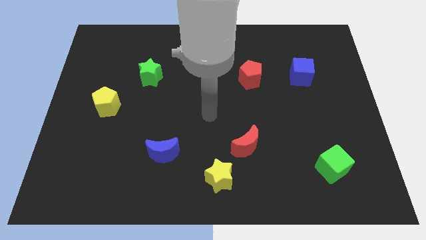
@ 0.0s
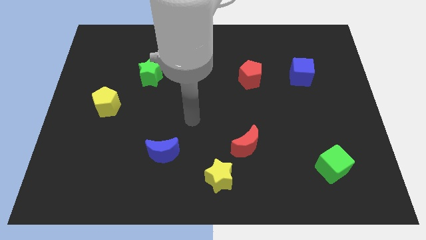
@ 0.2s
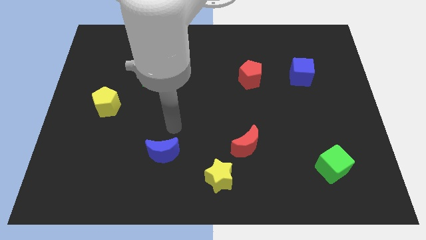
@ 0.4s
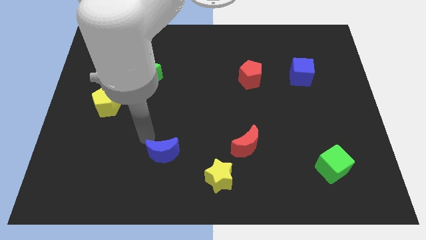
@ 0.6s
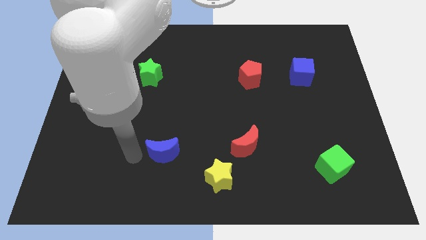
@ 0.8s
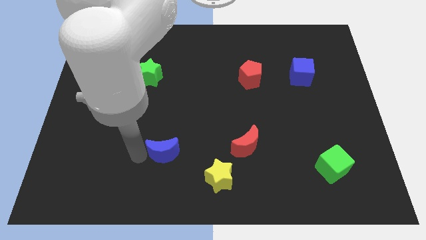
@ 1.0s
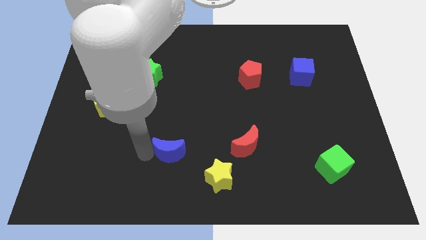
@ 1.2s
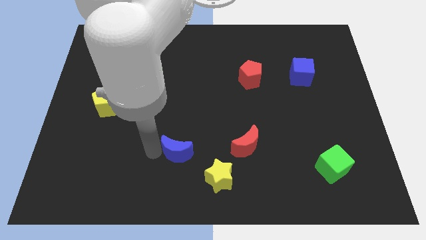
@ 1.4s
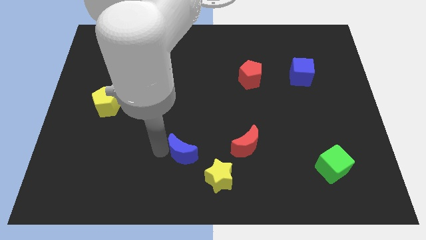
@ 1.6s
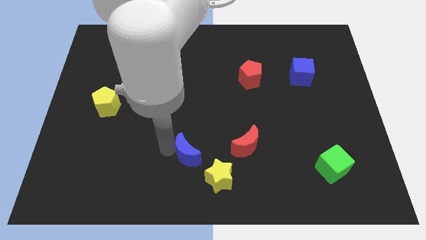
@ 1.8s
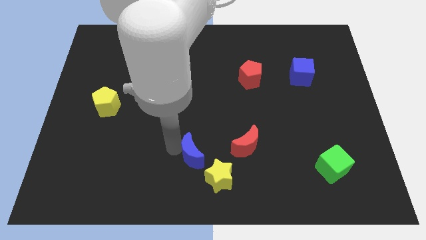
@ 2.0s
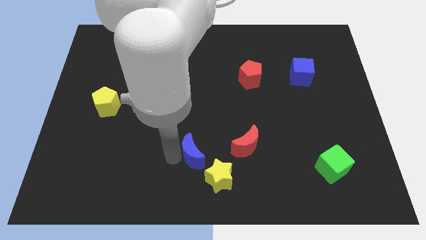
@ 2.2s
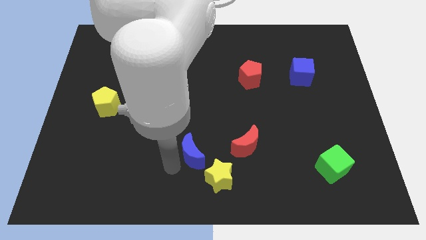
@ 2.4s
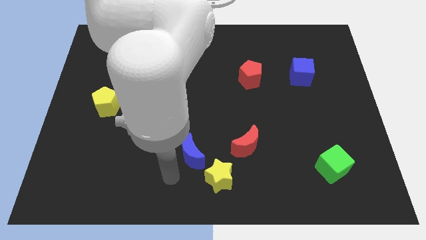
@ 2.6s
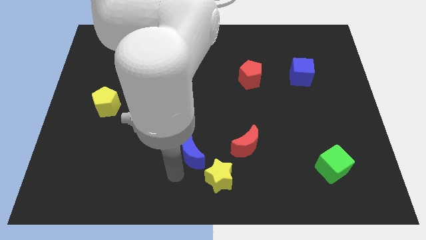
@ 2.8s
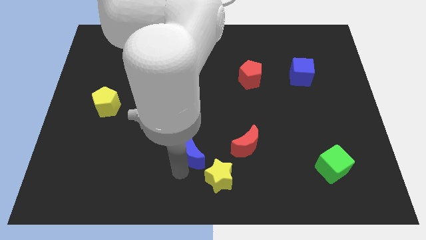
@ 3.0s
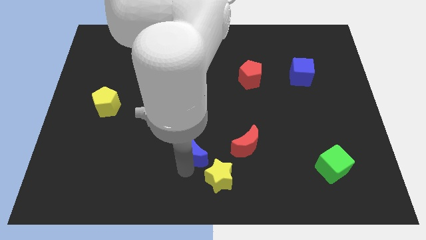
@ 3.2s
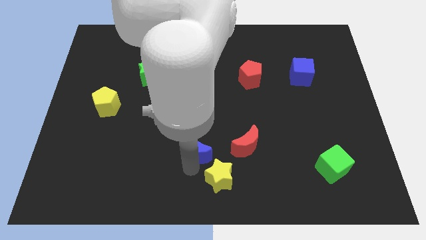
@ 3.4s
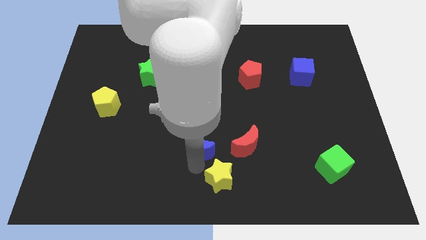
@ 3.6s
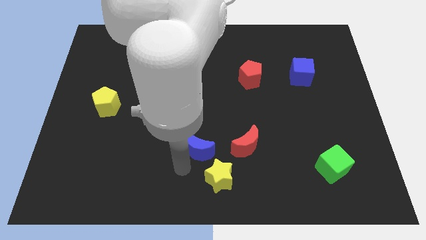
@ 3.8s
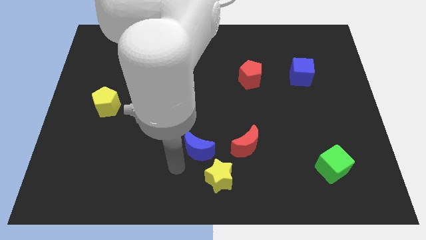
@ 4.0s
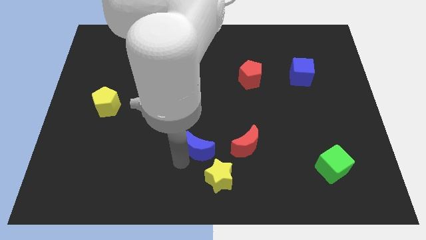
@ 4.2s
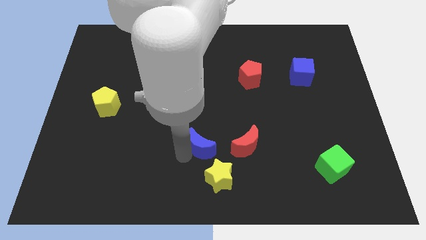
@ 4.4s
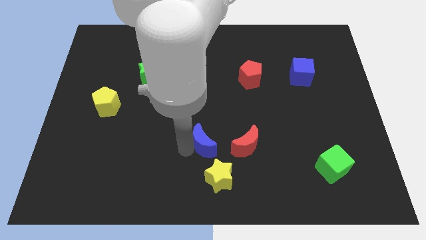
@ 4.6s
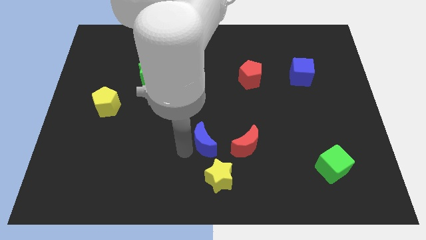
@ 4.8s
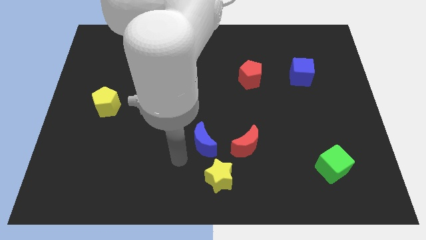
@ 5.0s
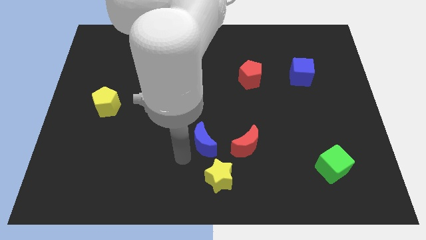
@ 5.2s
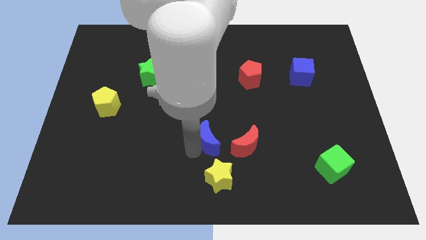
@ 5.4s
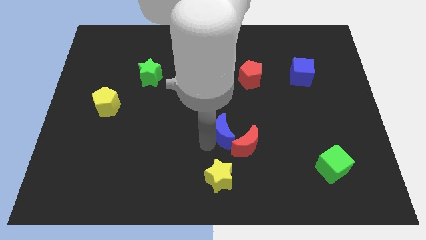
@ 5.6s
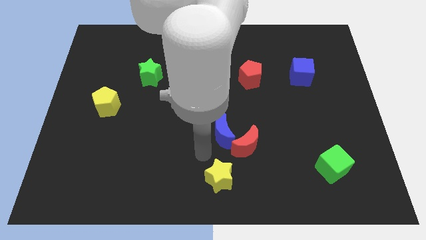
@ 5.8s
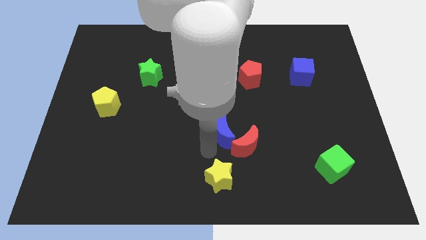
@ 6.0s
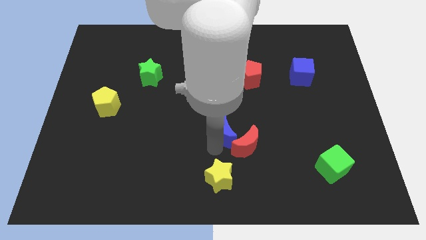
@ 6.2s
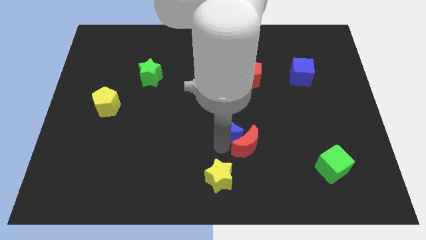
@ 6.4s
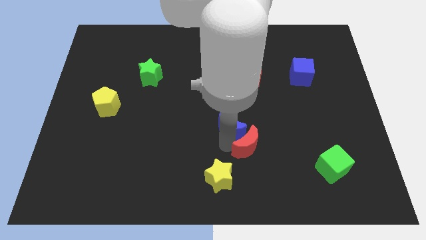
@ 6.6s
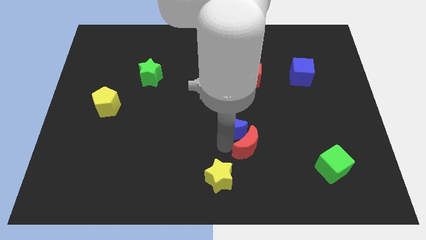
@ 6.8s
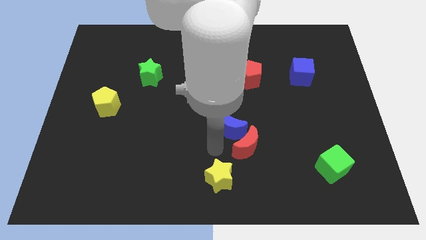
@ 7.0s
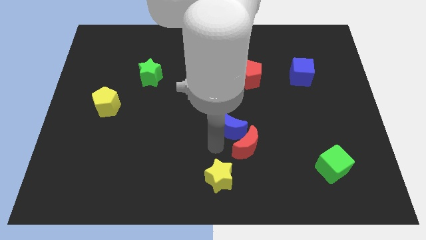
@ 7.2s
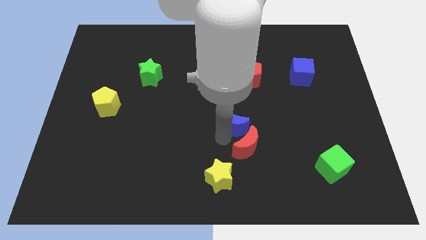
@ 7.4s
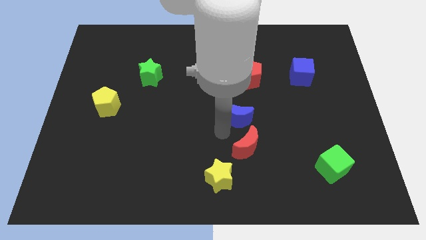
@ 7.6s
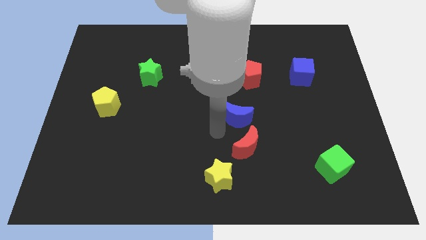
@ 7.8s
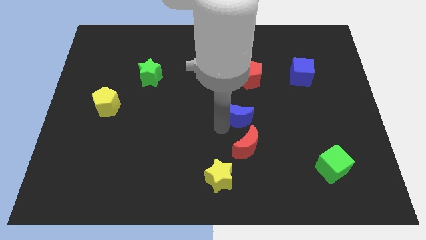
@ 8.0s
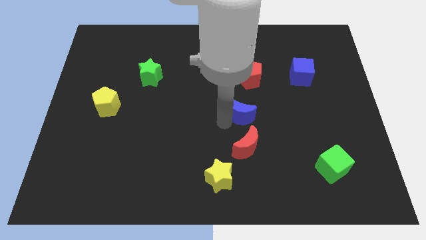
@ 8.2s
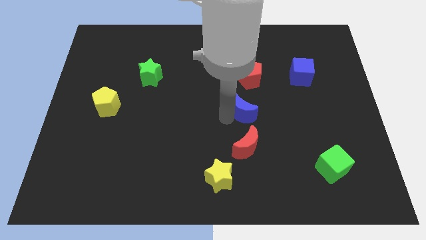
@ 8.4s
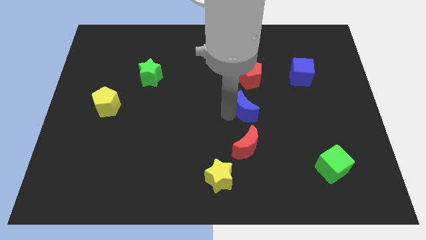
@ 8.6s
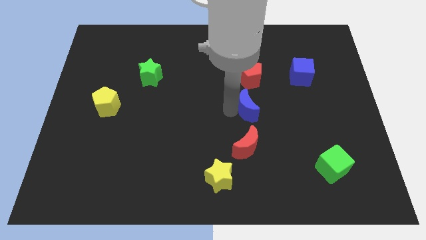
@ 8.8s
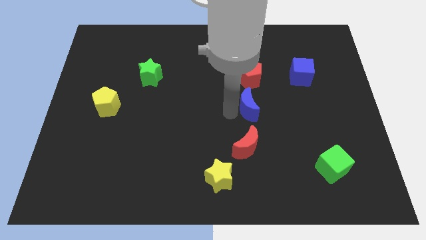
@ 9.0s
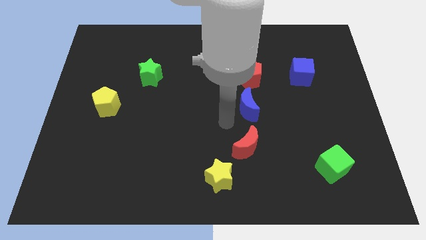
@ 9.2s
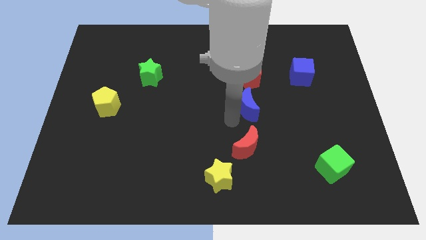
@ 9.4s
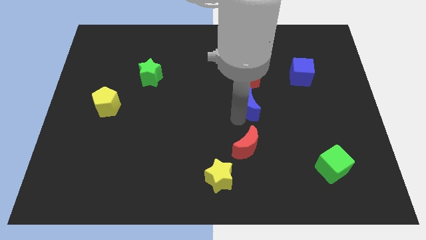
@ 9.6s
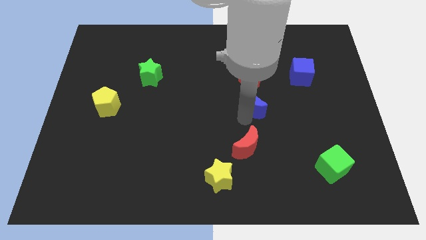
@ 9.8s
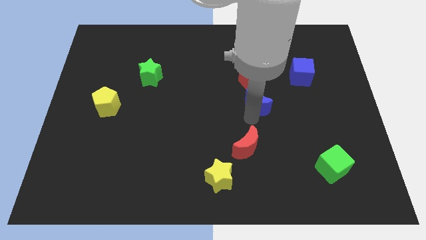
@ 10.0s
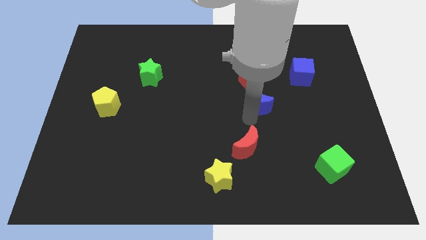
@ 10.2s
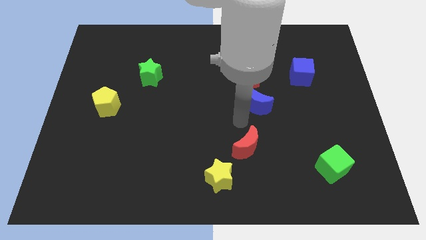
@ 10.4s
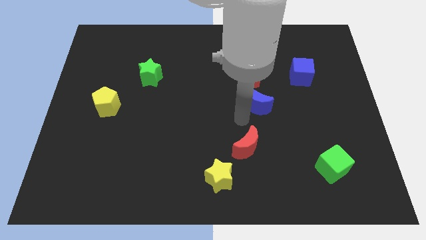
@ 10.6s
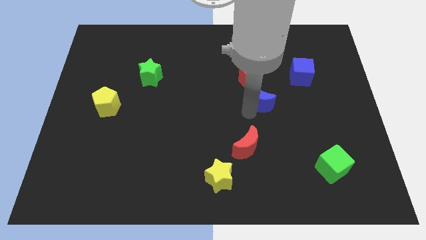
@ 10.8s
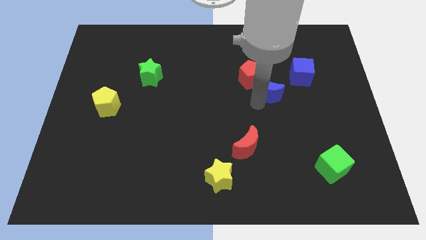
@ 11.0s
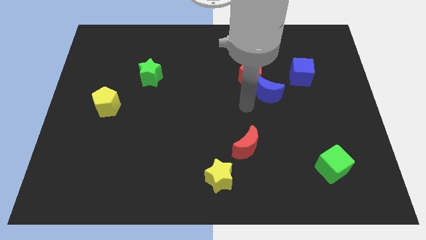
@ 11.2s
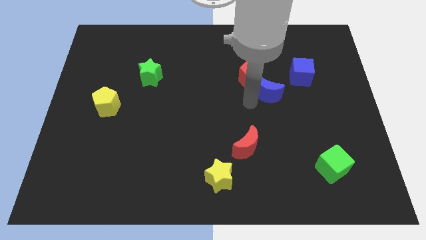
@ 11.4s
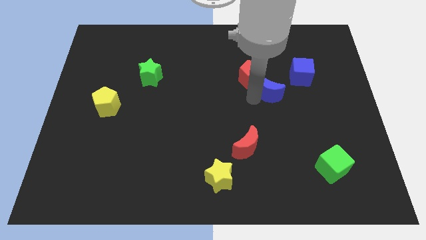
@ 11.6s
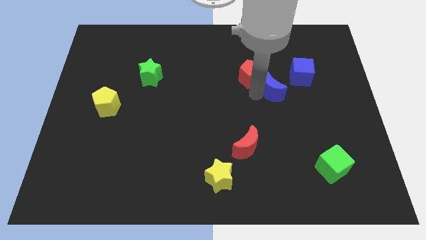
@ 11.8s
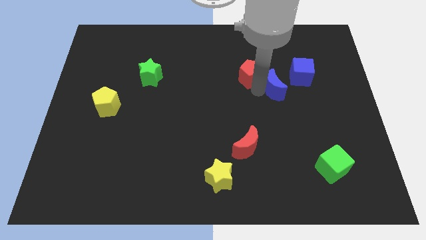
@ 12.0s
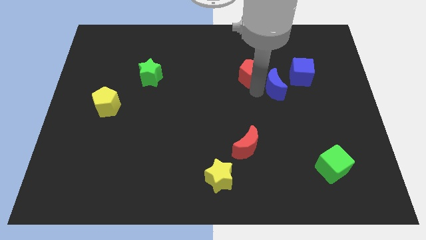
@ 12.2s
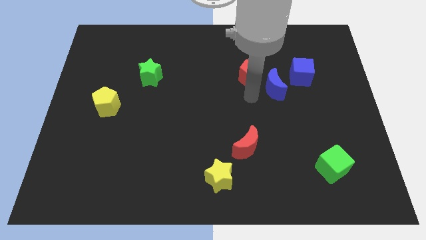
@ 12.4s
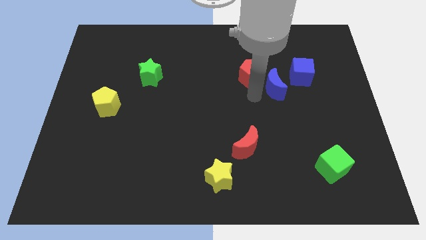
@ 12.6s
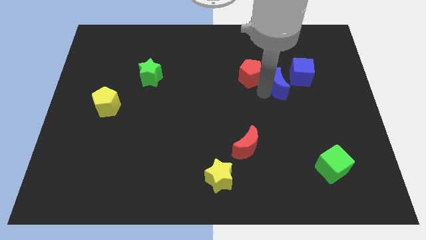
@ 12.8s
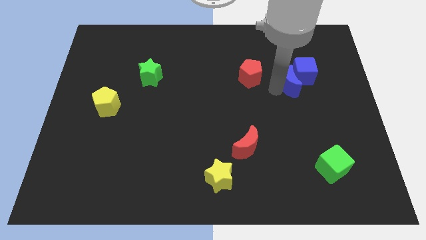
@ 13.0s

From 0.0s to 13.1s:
push the blue moon next to the blue cube

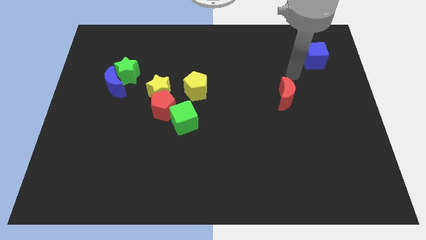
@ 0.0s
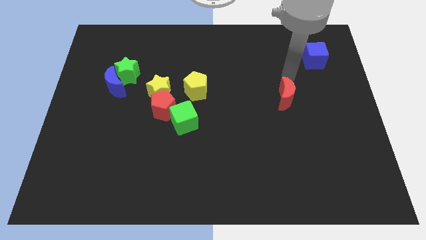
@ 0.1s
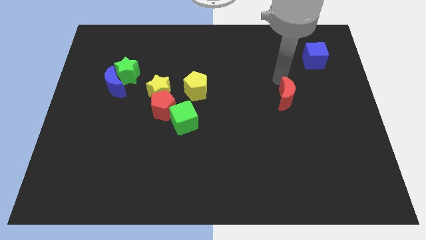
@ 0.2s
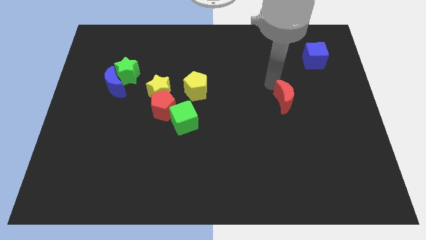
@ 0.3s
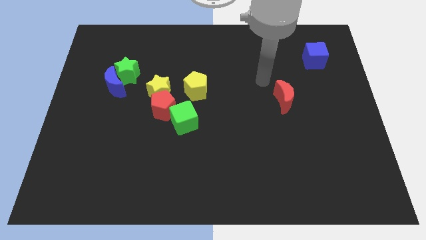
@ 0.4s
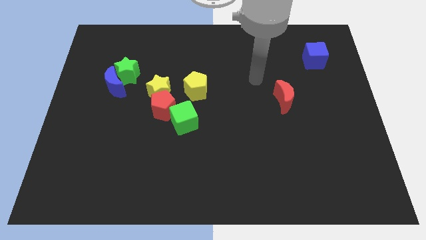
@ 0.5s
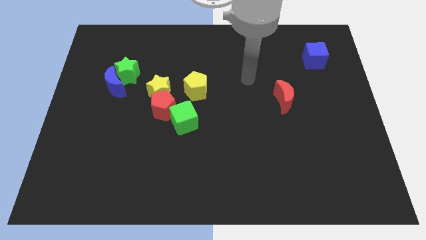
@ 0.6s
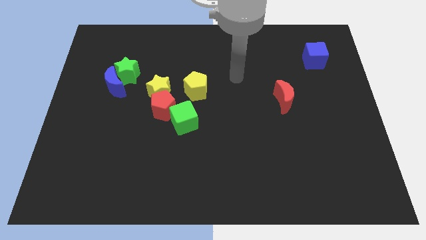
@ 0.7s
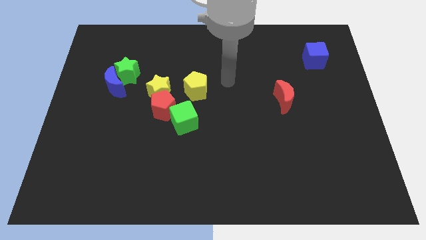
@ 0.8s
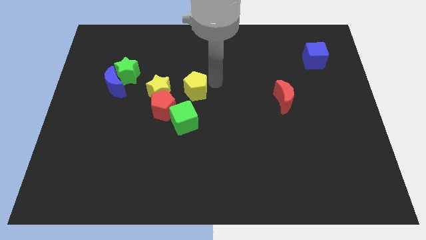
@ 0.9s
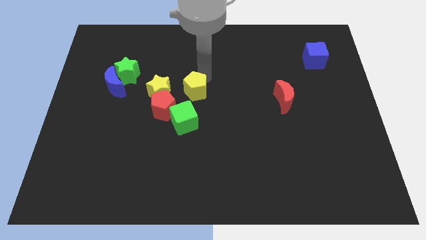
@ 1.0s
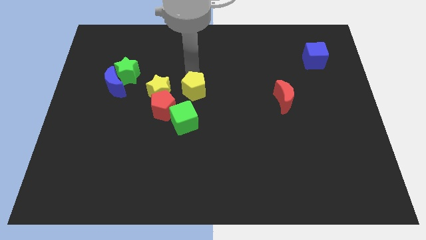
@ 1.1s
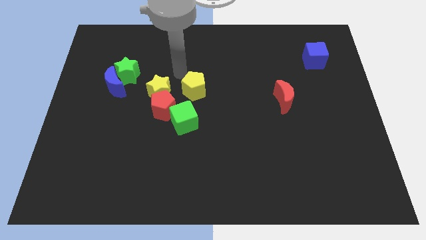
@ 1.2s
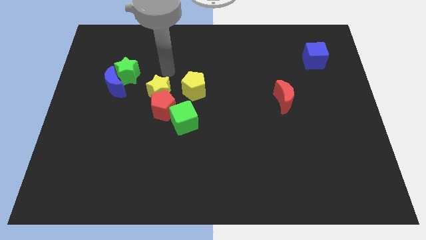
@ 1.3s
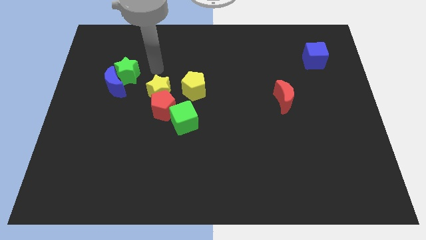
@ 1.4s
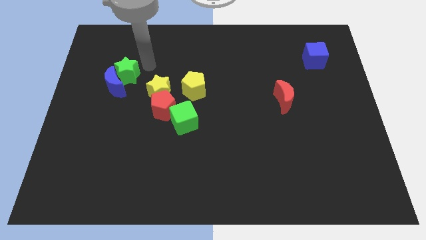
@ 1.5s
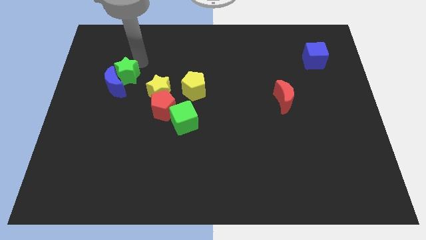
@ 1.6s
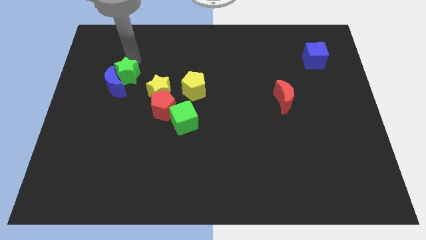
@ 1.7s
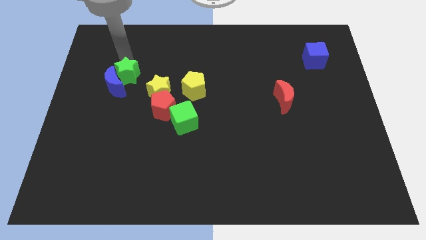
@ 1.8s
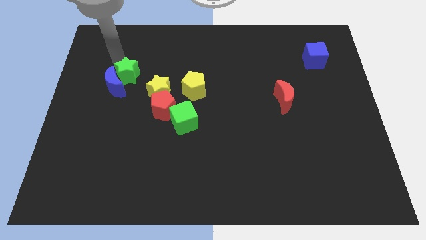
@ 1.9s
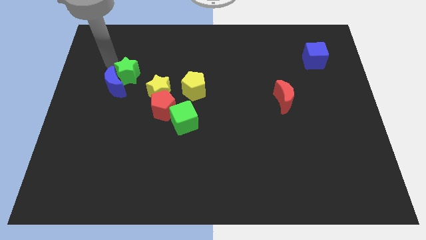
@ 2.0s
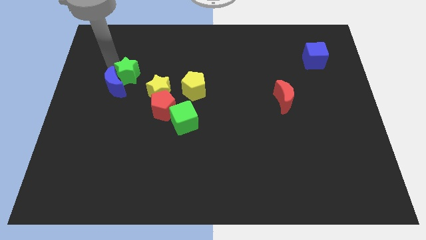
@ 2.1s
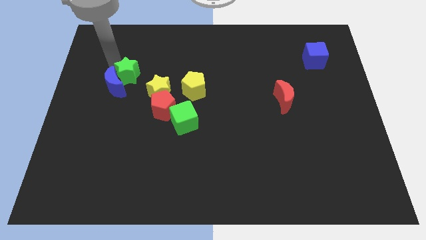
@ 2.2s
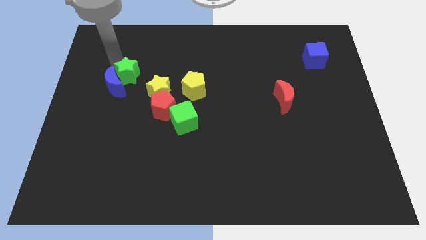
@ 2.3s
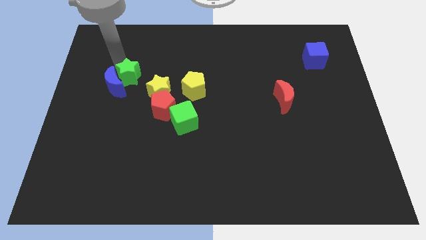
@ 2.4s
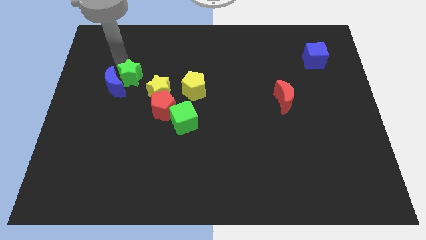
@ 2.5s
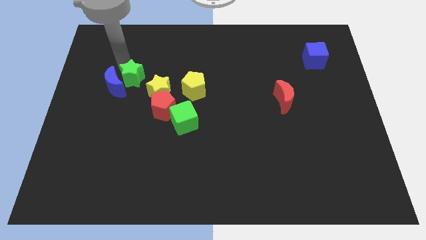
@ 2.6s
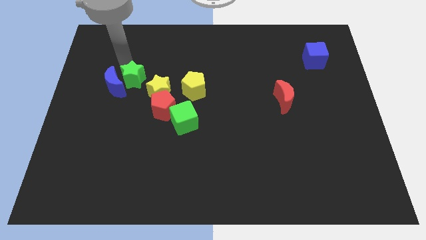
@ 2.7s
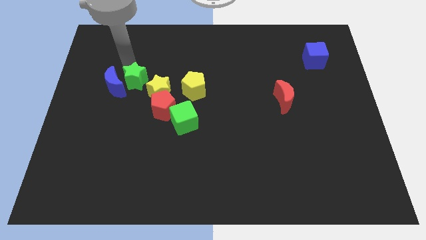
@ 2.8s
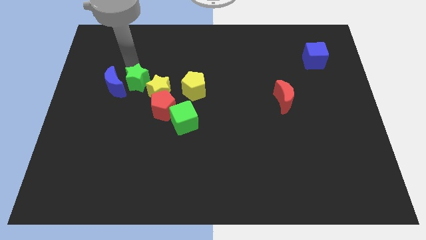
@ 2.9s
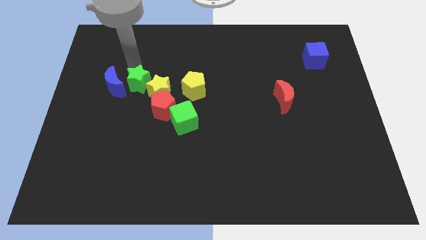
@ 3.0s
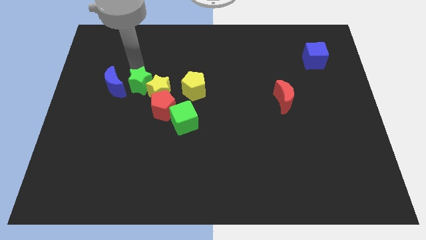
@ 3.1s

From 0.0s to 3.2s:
move the green star next to the yellow star
